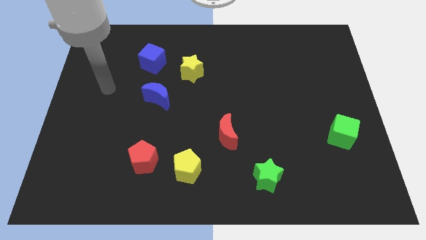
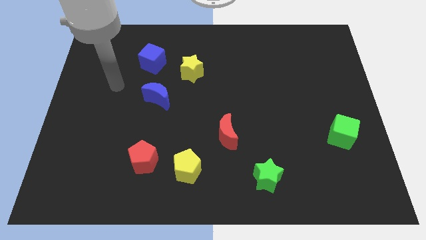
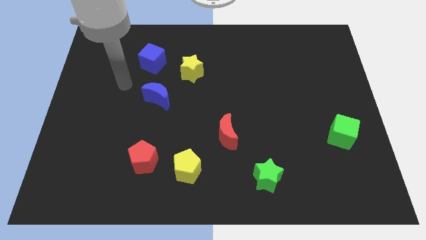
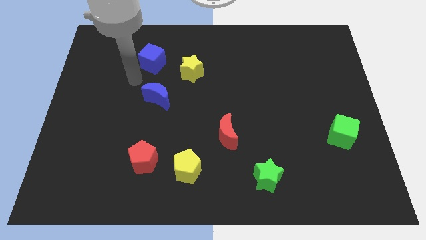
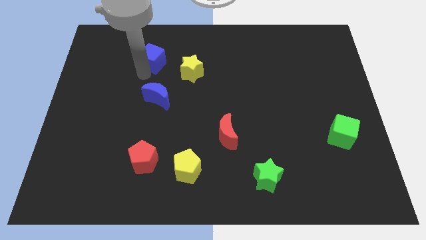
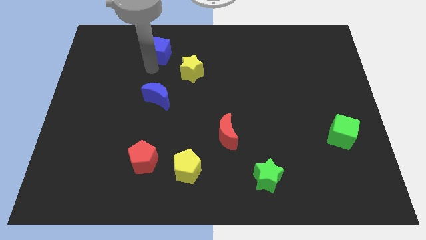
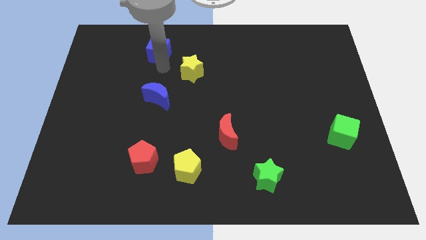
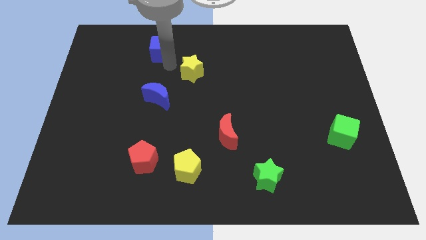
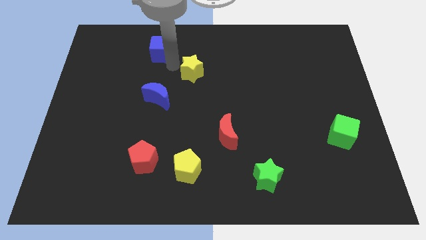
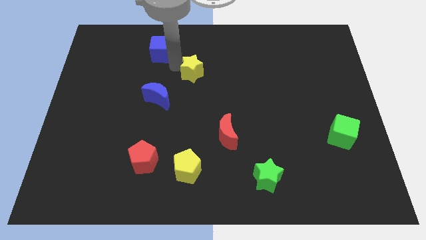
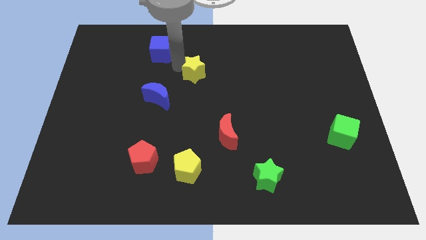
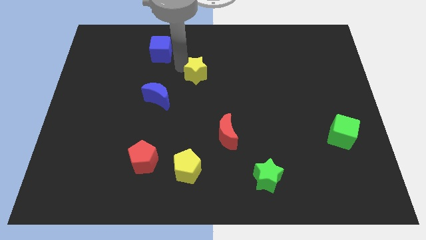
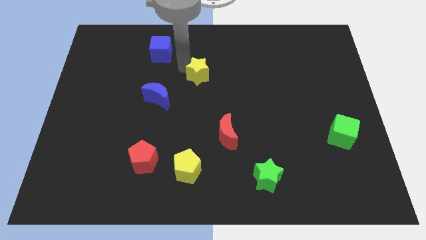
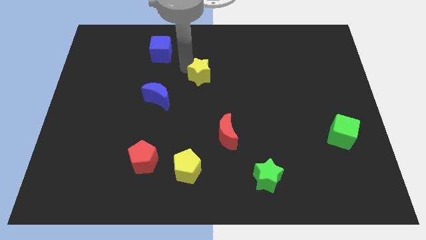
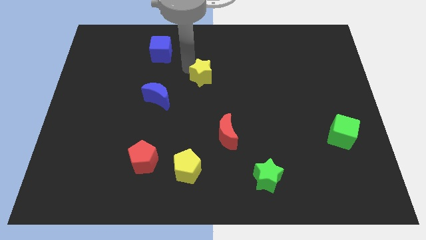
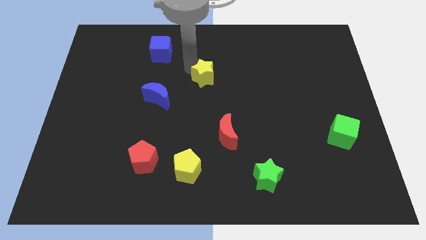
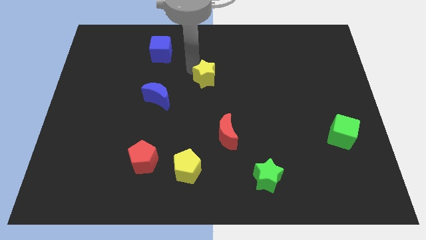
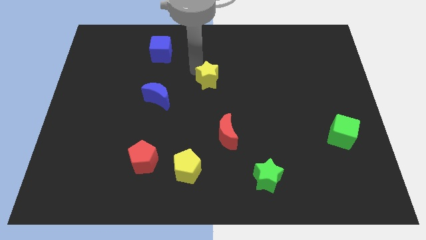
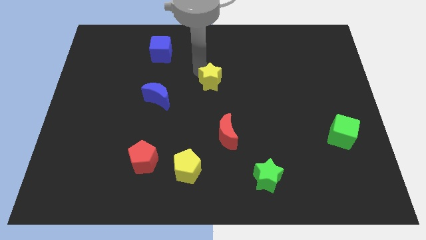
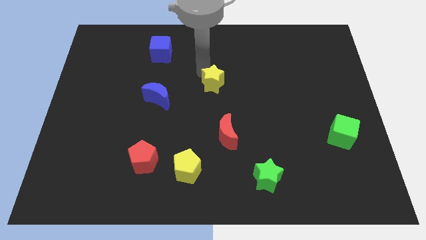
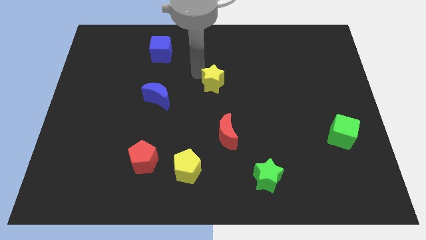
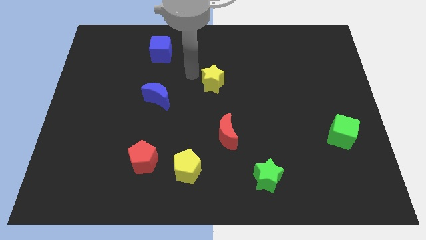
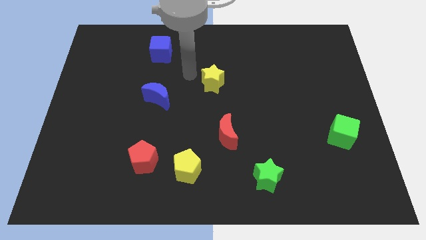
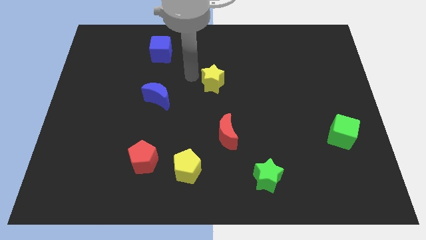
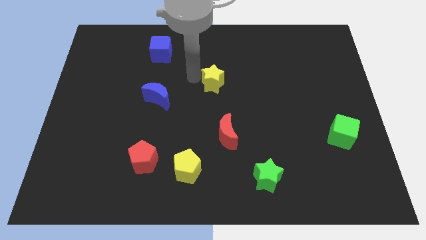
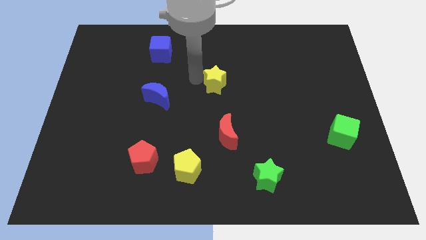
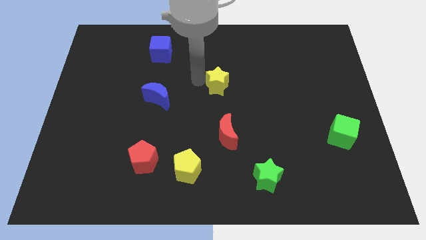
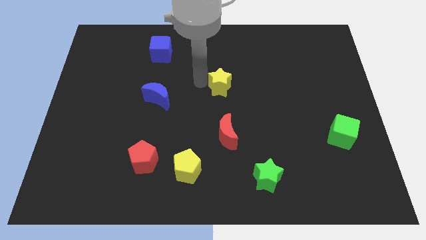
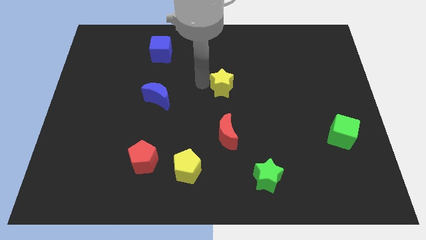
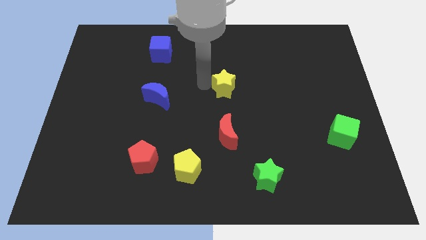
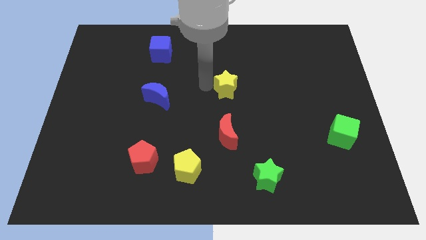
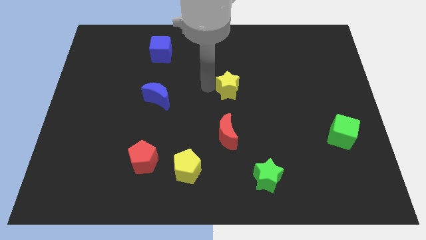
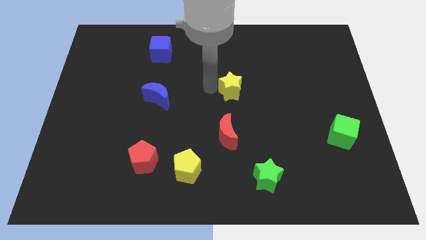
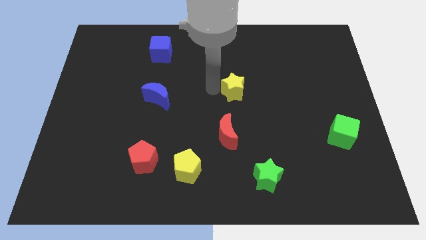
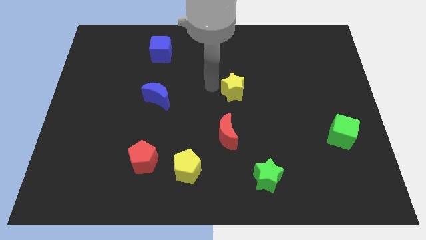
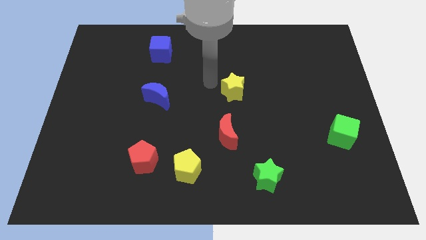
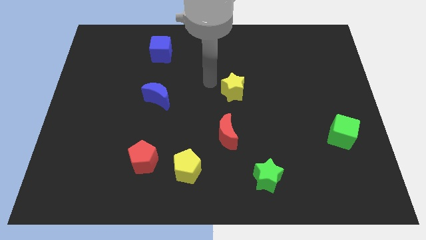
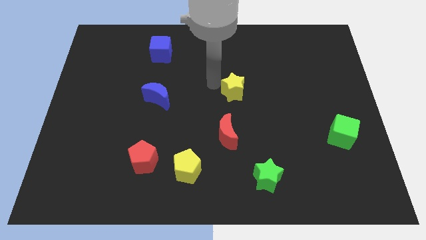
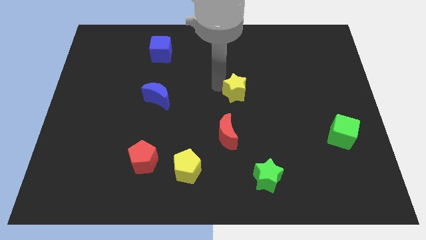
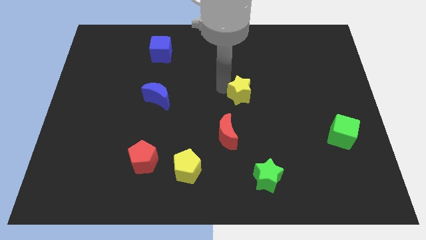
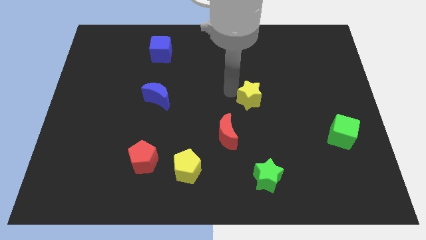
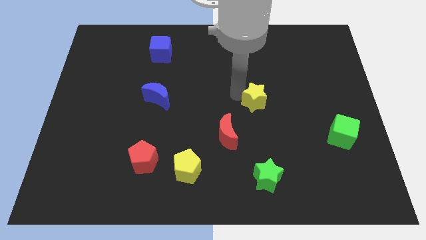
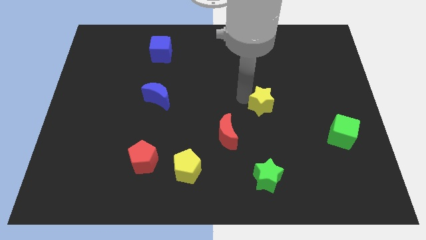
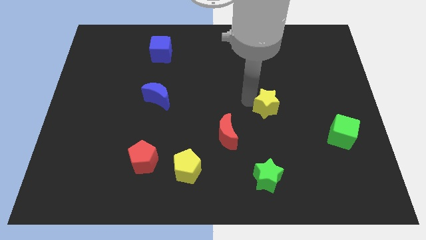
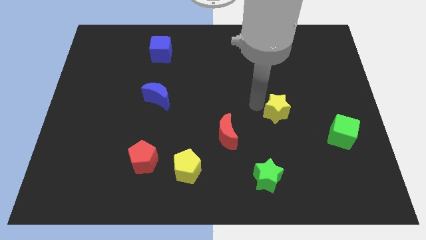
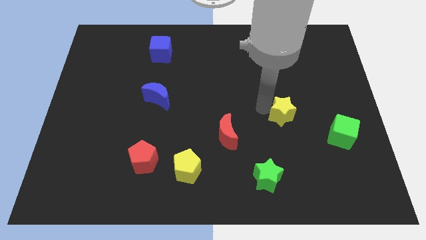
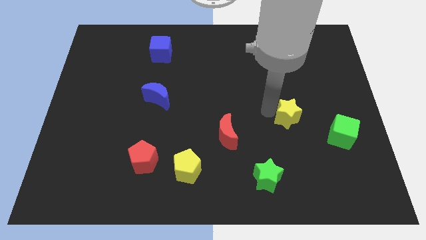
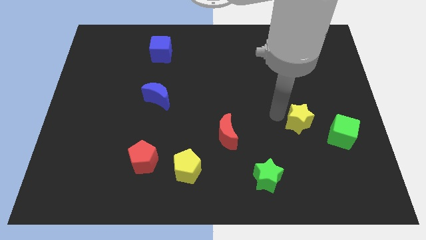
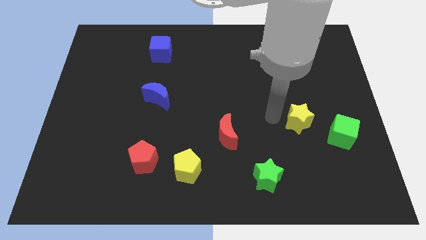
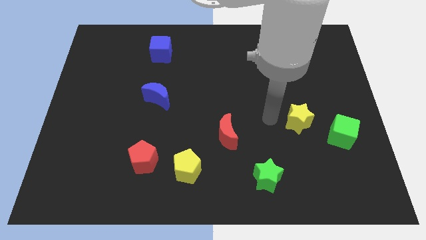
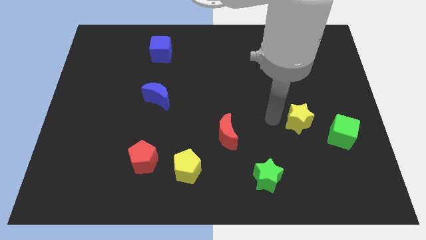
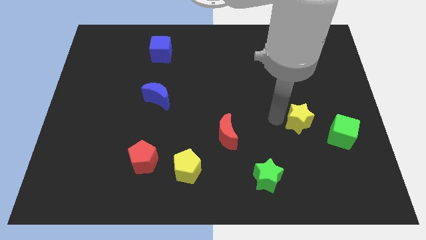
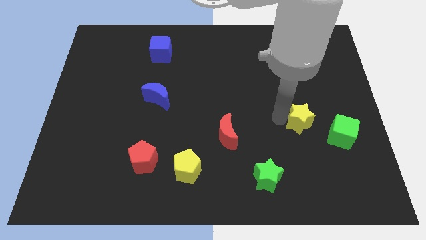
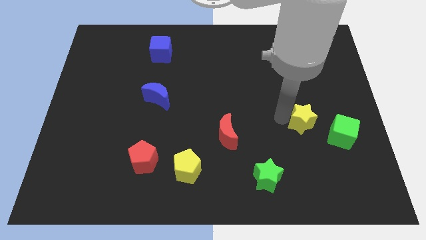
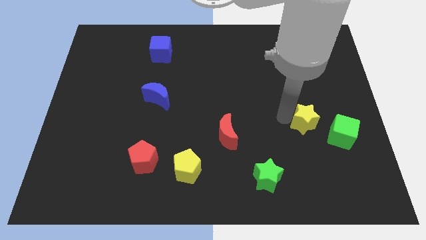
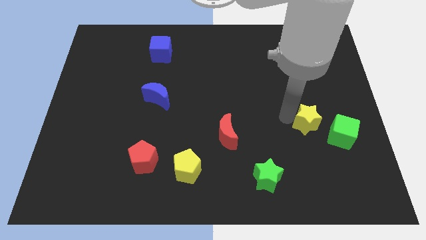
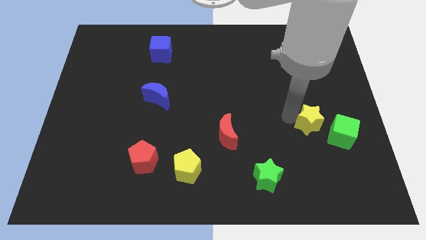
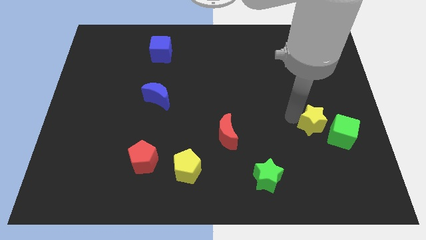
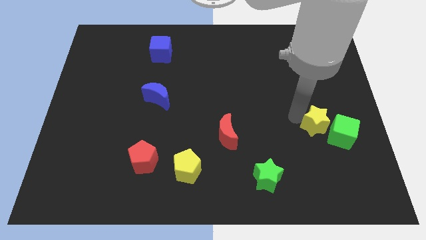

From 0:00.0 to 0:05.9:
move the yellow star towards the green cube

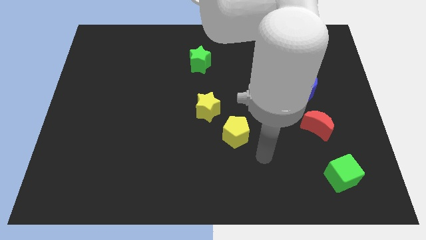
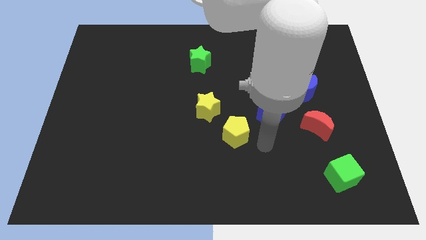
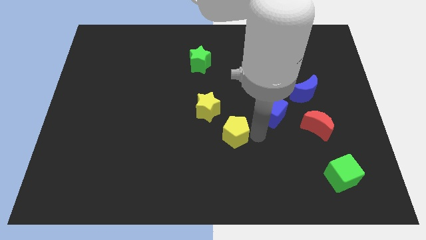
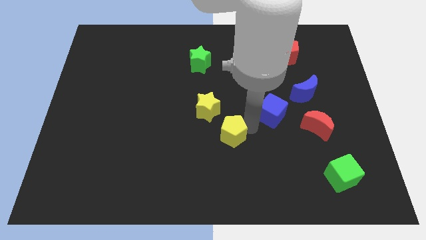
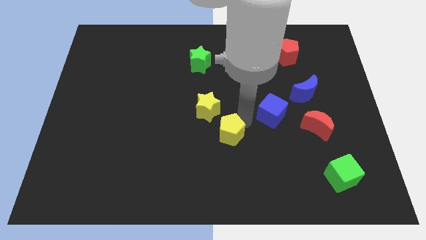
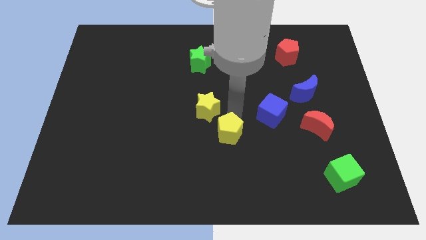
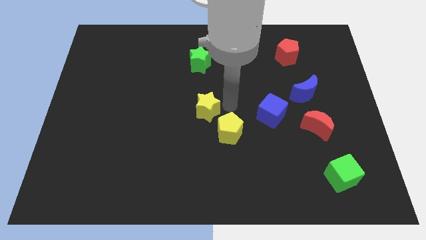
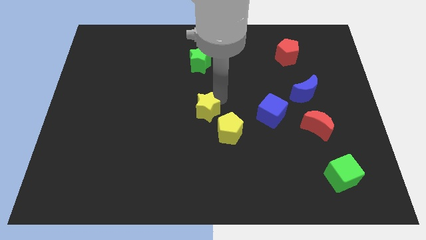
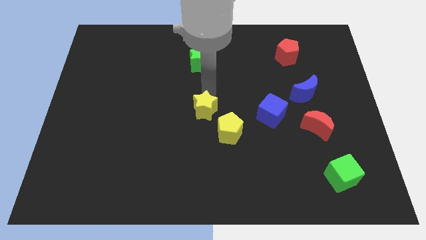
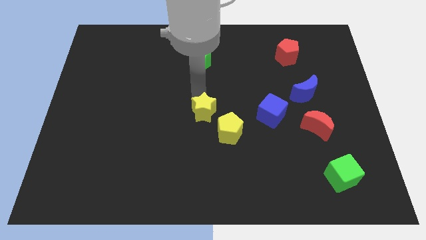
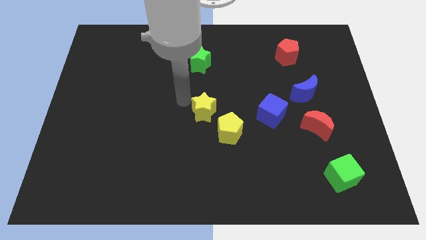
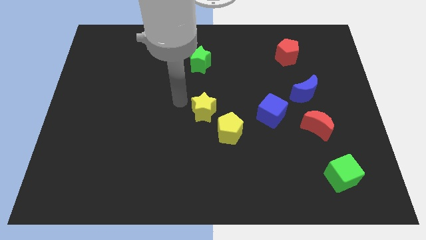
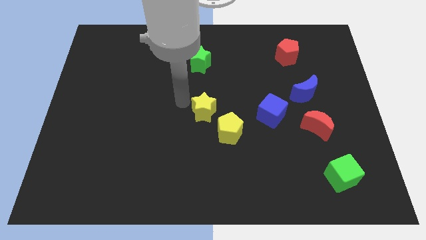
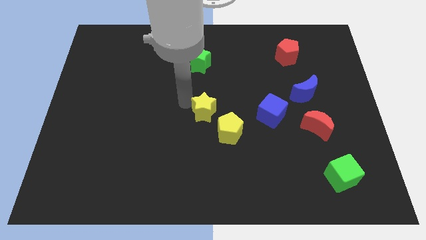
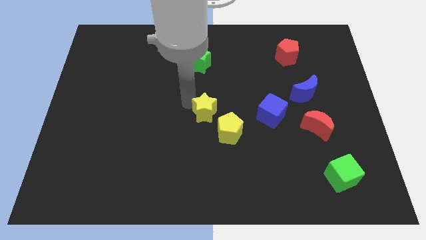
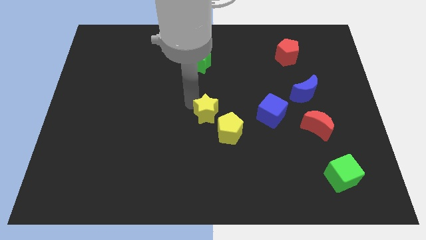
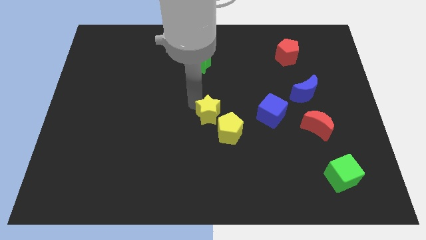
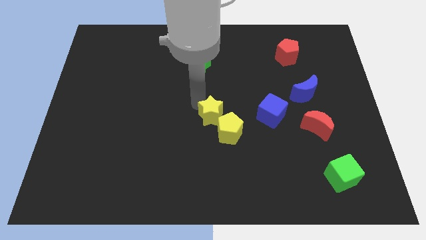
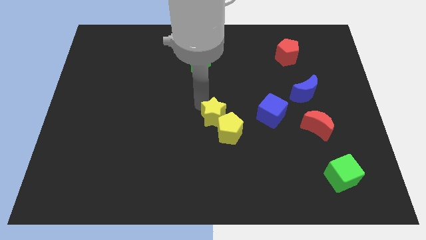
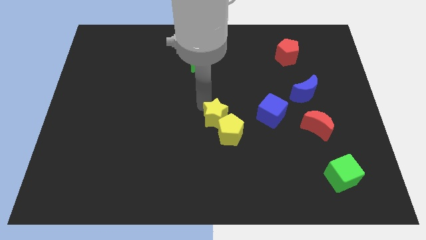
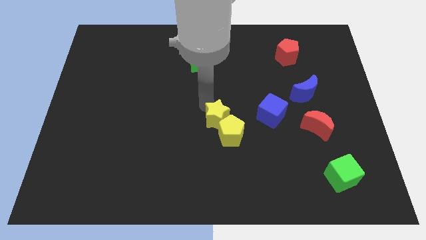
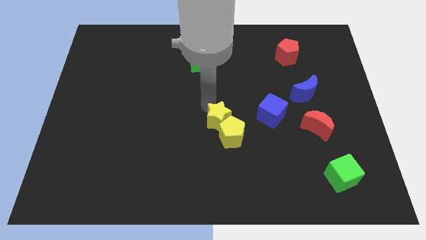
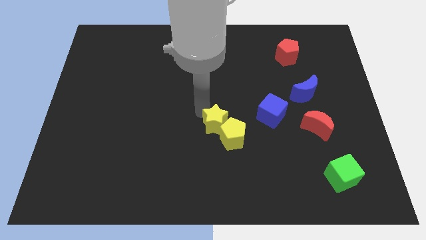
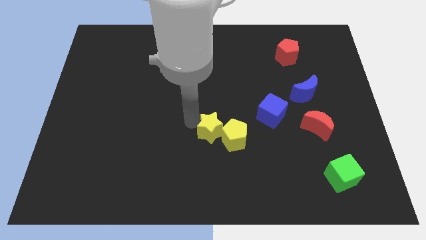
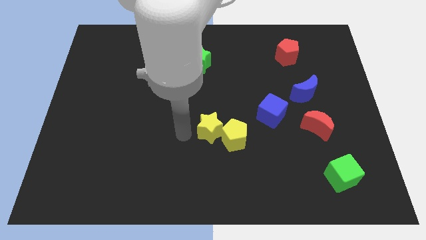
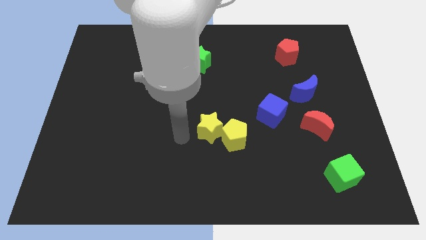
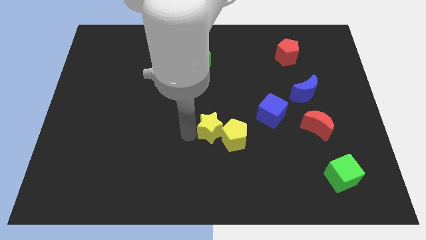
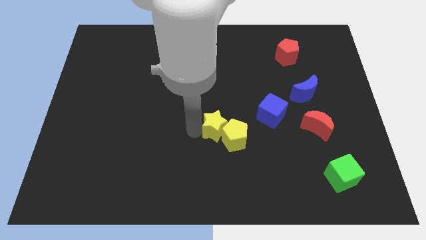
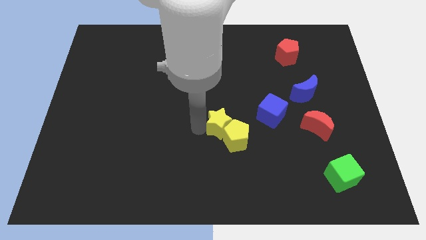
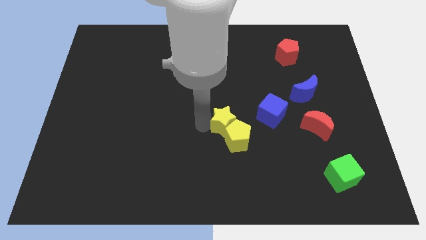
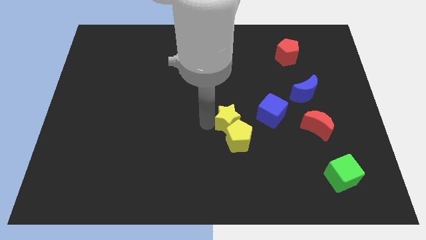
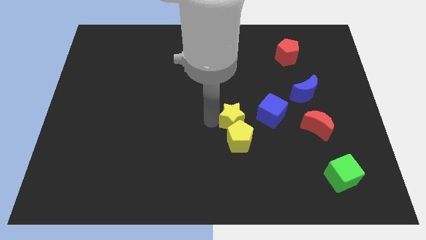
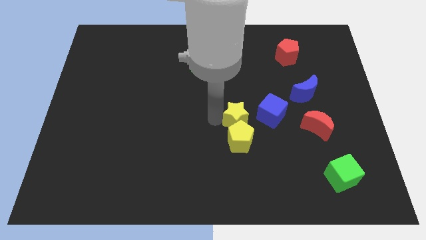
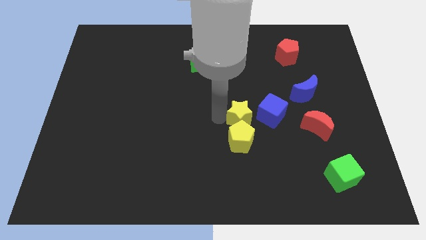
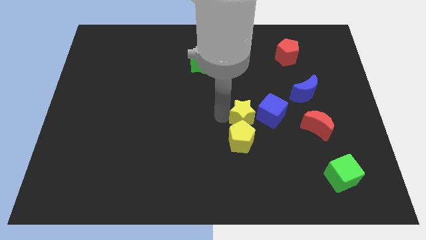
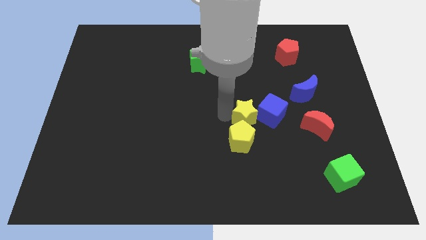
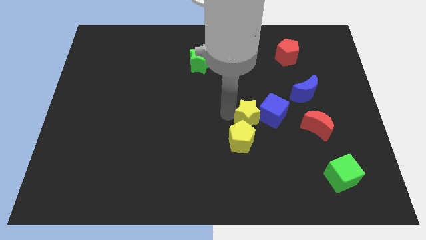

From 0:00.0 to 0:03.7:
put the yellow star close to the blue cube
